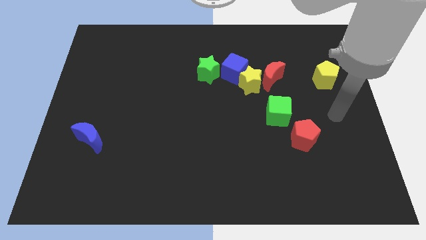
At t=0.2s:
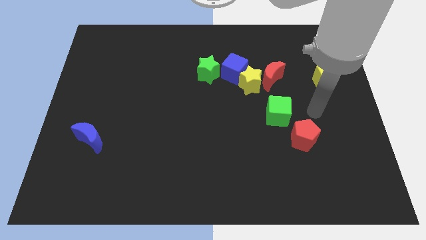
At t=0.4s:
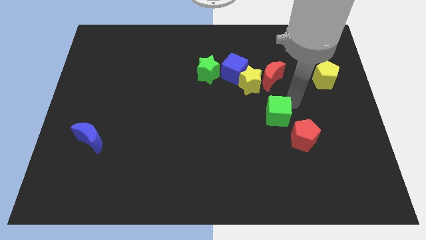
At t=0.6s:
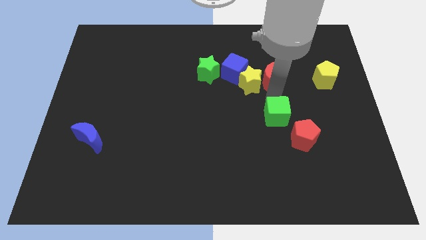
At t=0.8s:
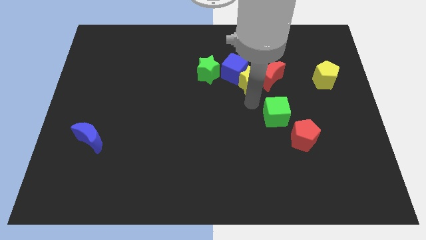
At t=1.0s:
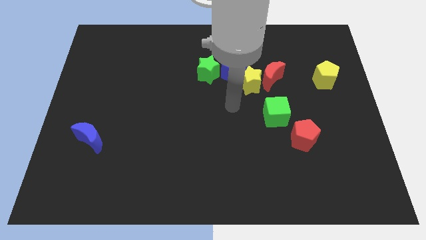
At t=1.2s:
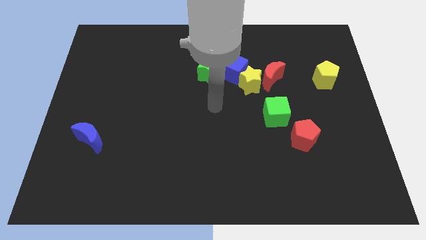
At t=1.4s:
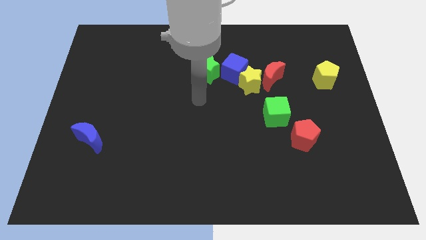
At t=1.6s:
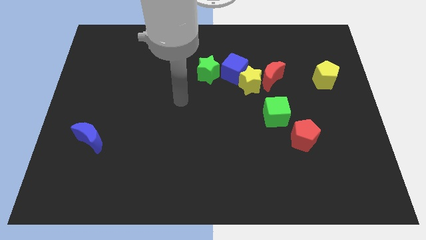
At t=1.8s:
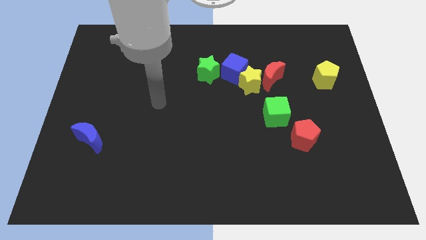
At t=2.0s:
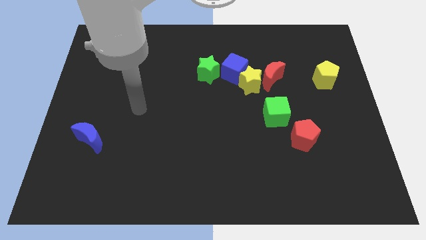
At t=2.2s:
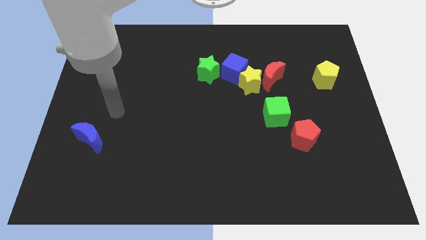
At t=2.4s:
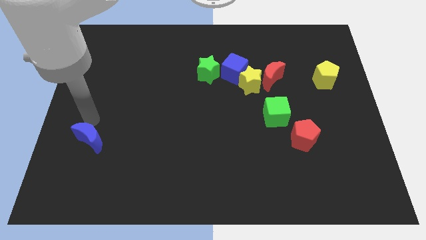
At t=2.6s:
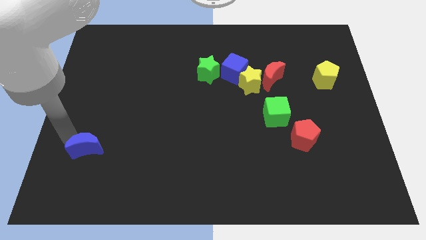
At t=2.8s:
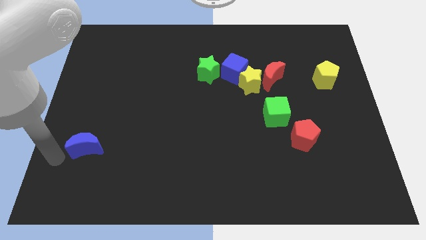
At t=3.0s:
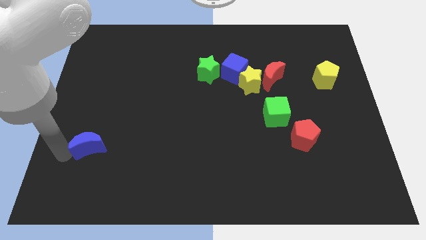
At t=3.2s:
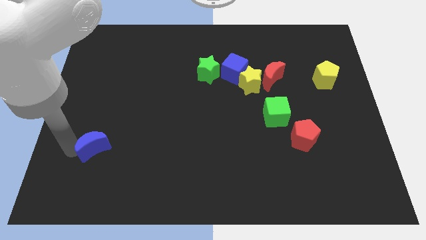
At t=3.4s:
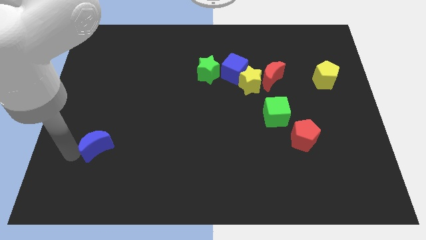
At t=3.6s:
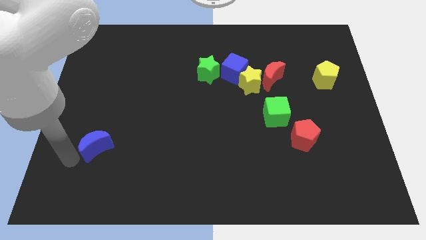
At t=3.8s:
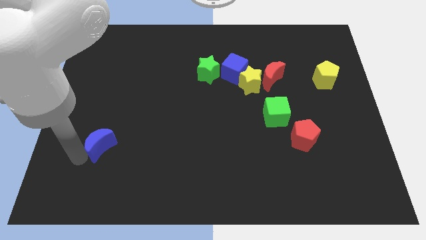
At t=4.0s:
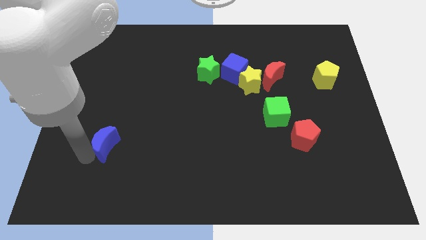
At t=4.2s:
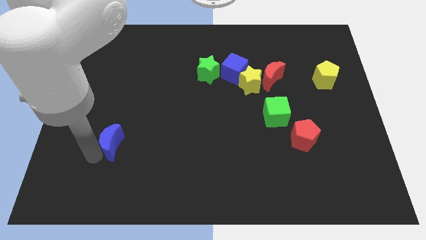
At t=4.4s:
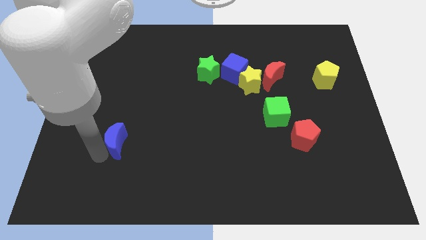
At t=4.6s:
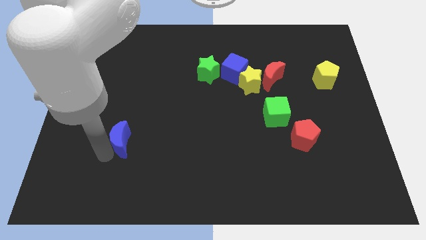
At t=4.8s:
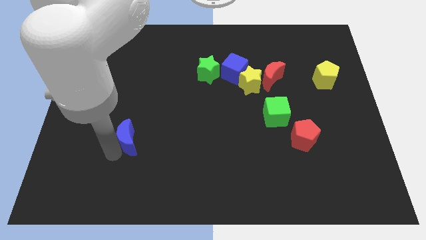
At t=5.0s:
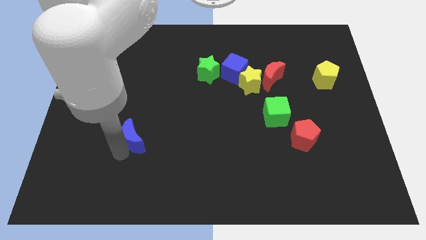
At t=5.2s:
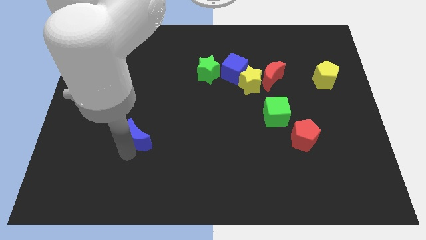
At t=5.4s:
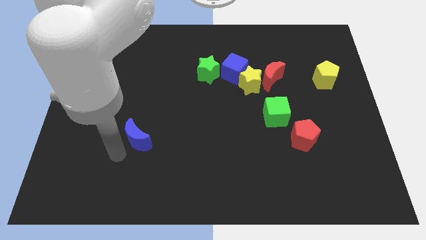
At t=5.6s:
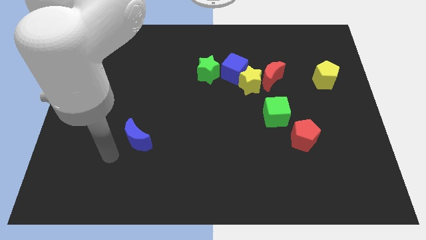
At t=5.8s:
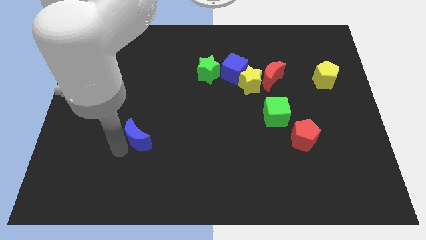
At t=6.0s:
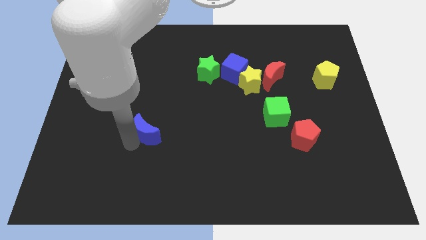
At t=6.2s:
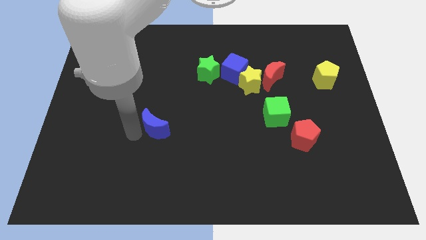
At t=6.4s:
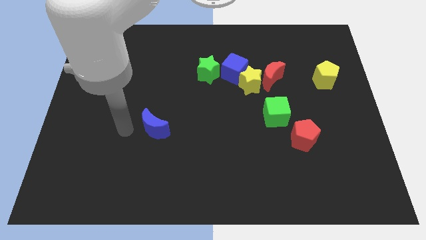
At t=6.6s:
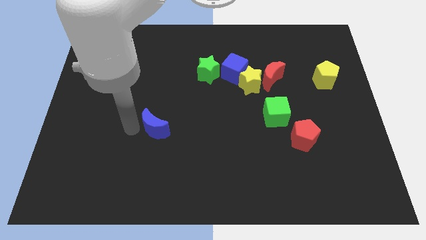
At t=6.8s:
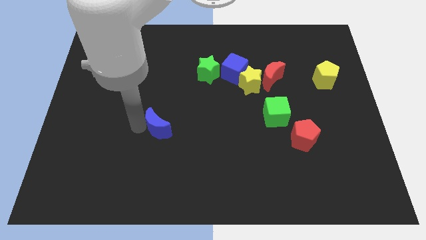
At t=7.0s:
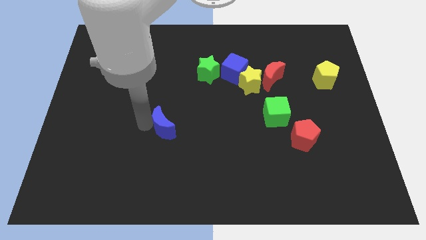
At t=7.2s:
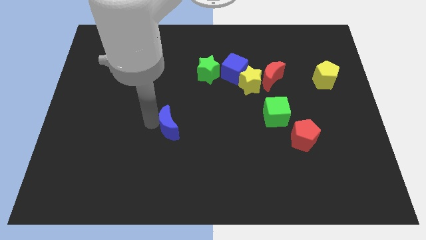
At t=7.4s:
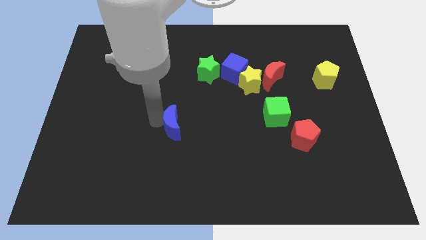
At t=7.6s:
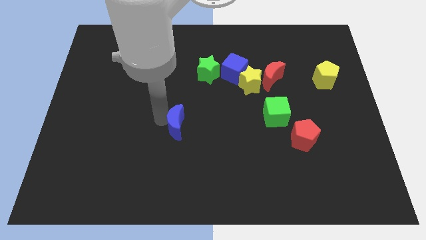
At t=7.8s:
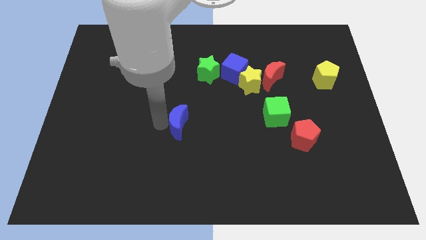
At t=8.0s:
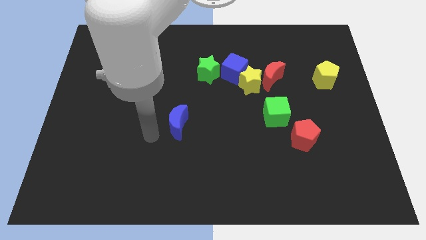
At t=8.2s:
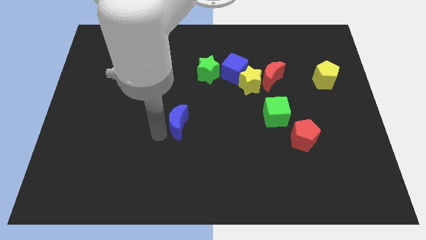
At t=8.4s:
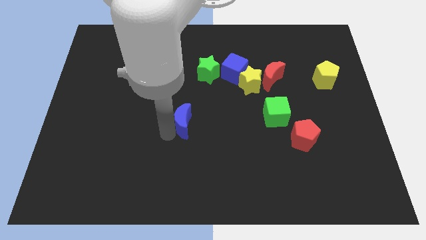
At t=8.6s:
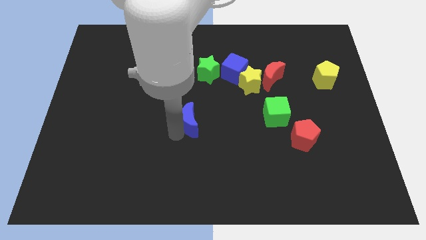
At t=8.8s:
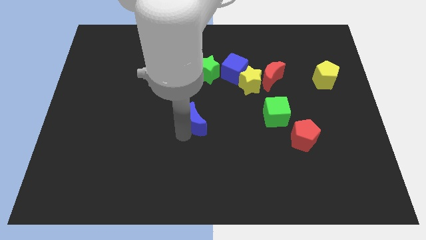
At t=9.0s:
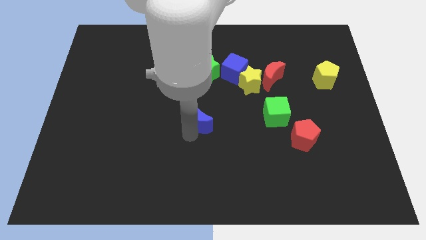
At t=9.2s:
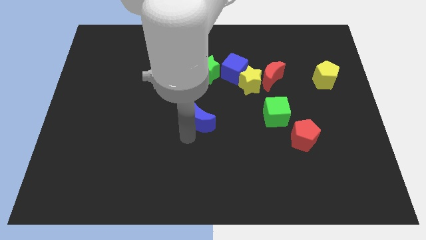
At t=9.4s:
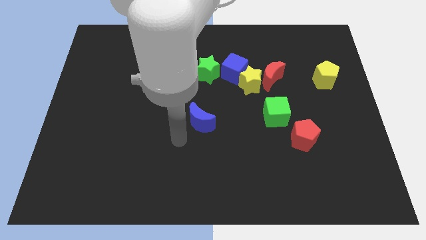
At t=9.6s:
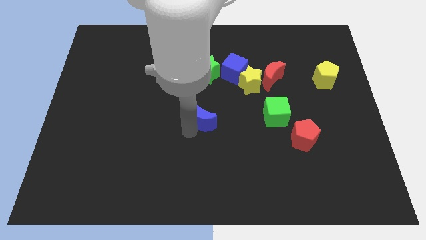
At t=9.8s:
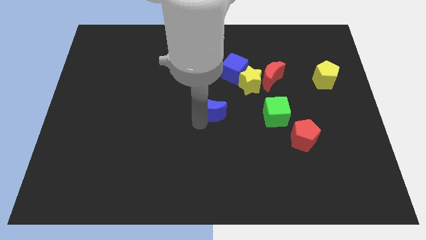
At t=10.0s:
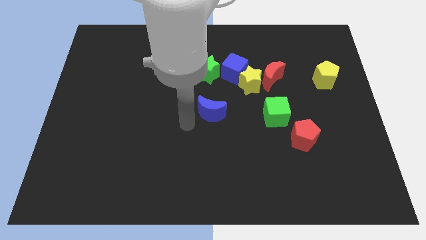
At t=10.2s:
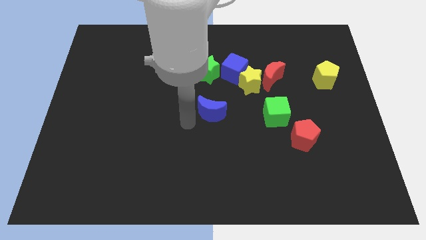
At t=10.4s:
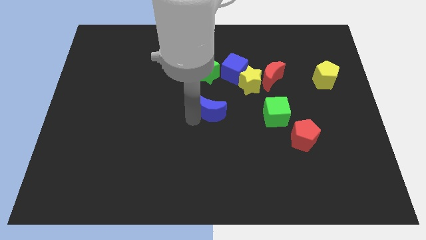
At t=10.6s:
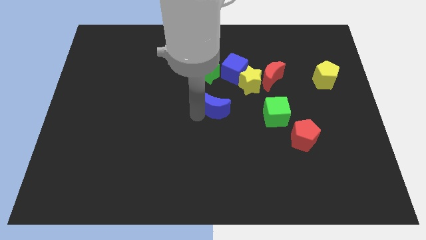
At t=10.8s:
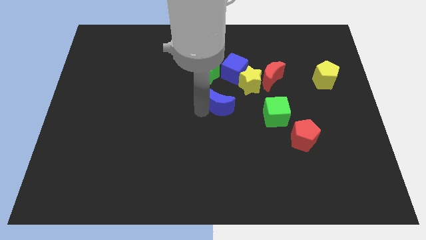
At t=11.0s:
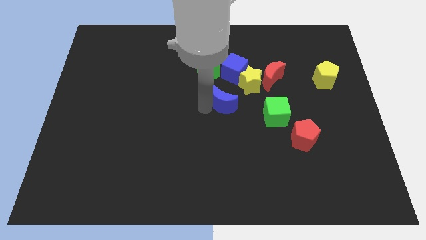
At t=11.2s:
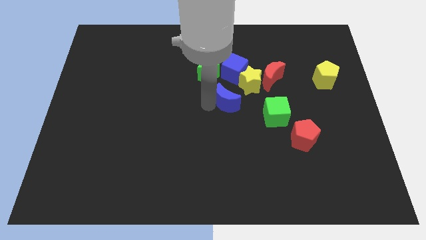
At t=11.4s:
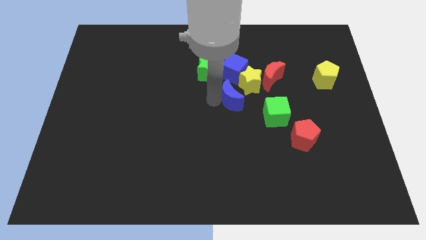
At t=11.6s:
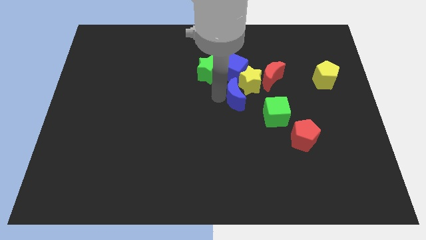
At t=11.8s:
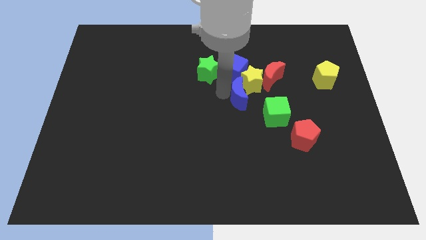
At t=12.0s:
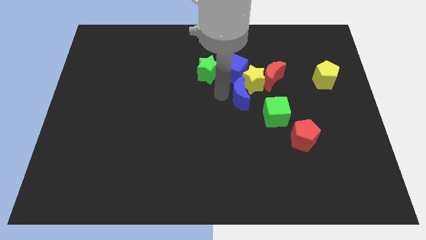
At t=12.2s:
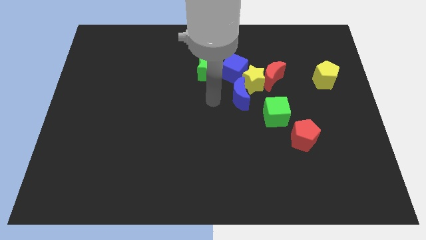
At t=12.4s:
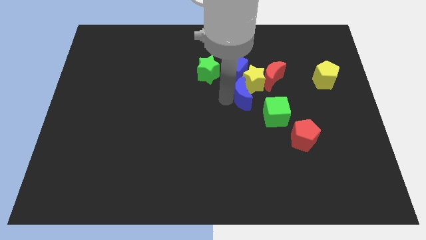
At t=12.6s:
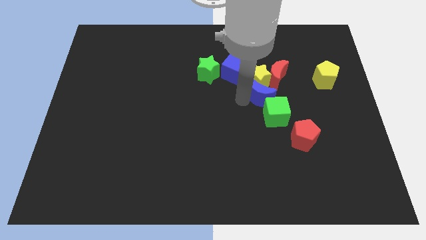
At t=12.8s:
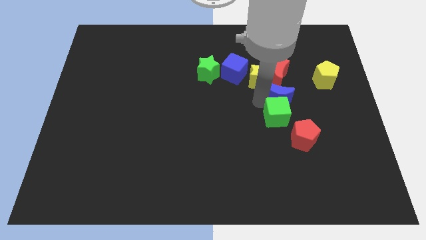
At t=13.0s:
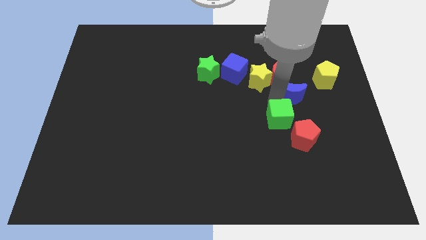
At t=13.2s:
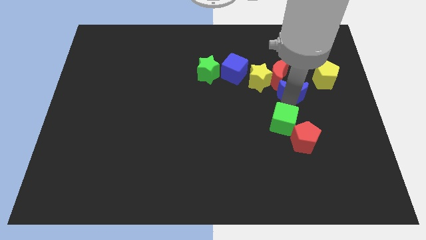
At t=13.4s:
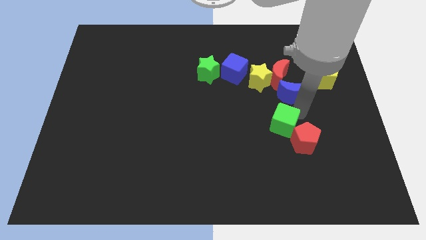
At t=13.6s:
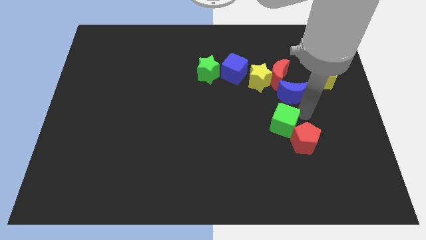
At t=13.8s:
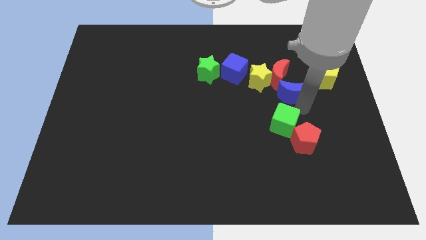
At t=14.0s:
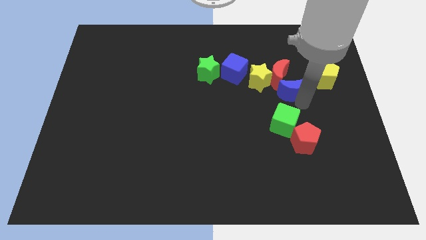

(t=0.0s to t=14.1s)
push the blue moon to the red moon
